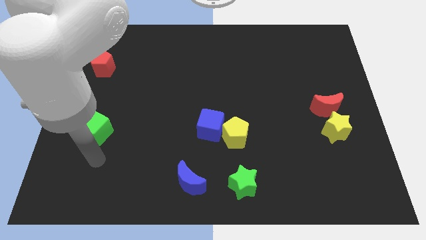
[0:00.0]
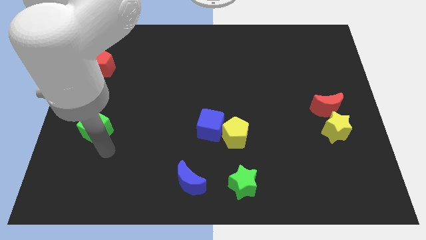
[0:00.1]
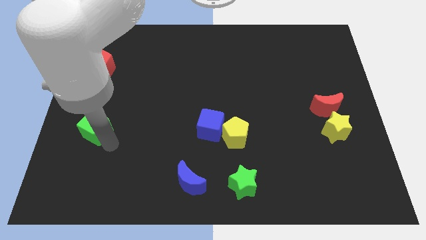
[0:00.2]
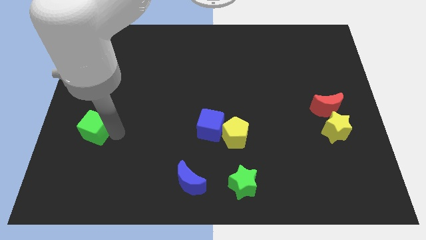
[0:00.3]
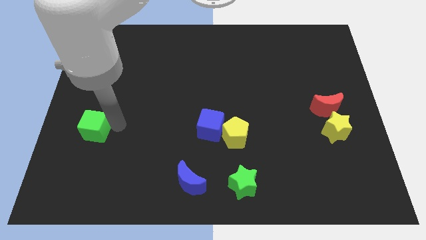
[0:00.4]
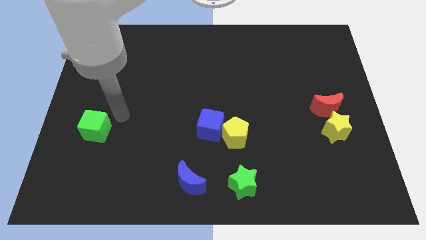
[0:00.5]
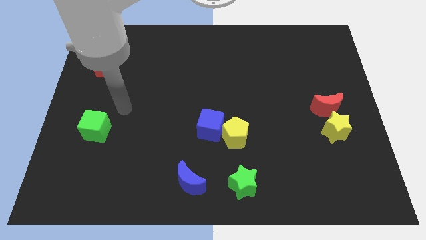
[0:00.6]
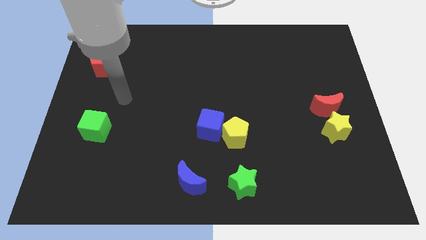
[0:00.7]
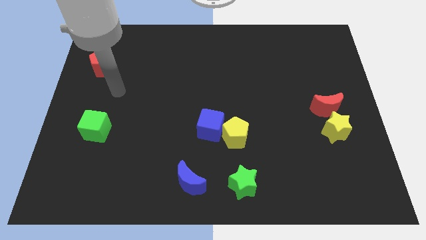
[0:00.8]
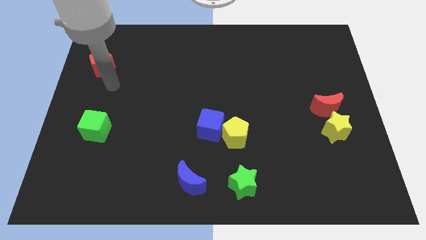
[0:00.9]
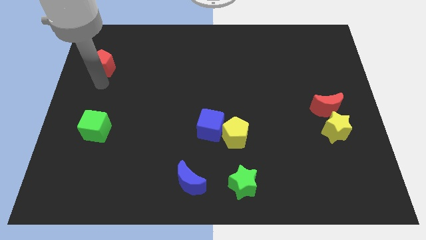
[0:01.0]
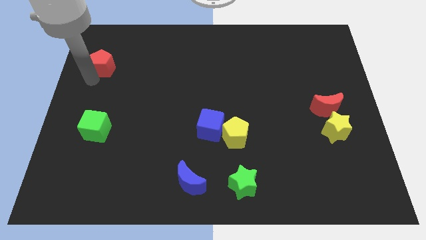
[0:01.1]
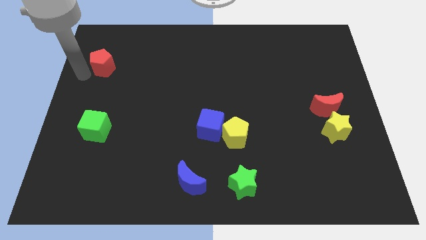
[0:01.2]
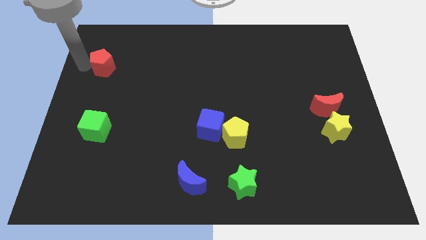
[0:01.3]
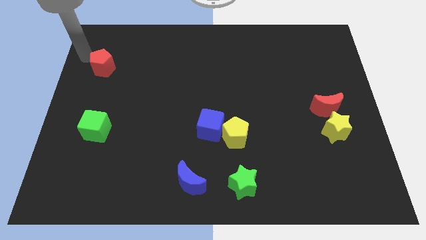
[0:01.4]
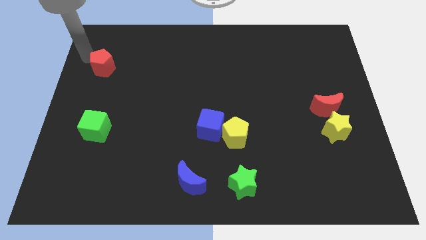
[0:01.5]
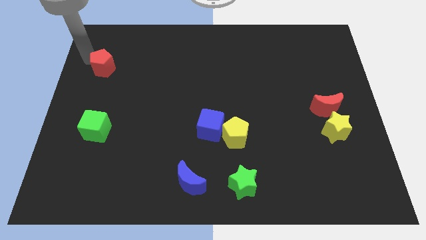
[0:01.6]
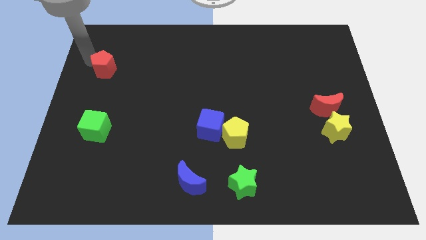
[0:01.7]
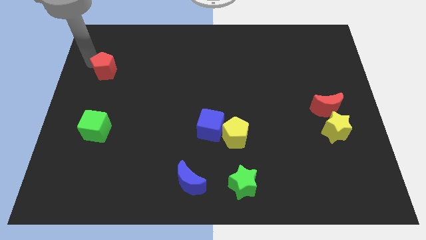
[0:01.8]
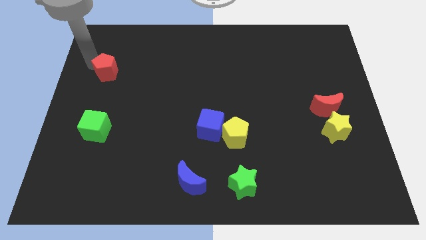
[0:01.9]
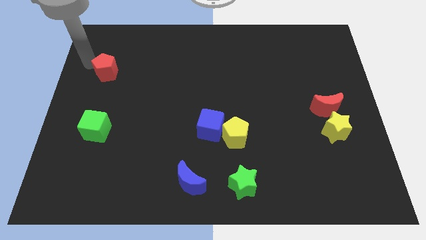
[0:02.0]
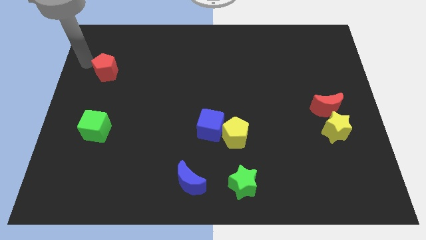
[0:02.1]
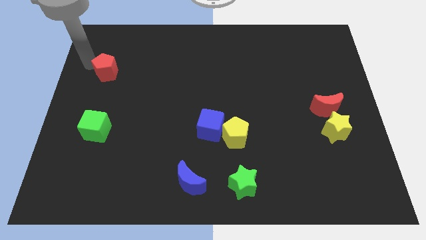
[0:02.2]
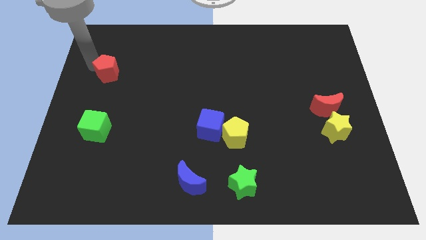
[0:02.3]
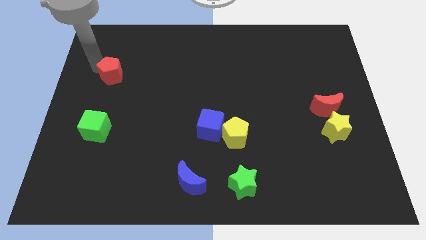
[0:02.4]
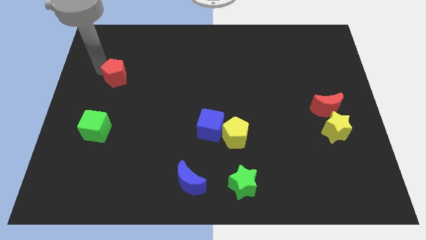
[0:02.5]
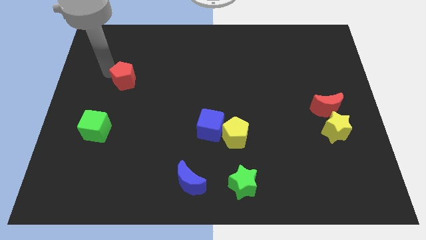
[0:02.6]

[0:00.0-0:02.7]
push the red pentagon downwards and then right slightly

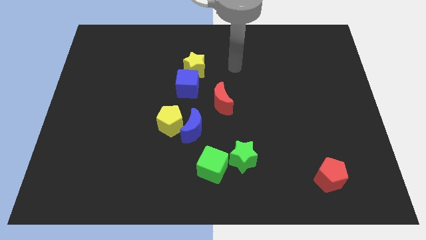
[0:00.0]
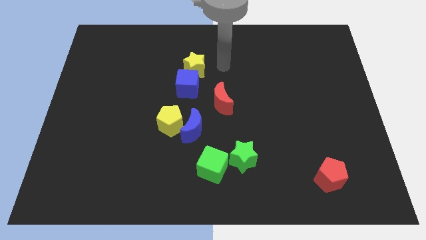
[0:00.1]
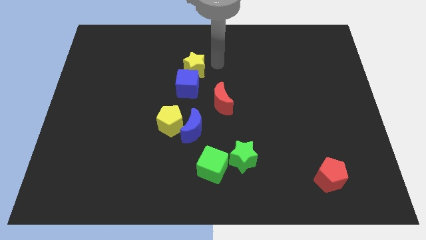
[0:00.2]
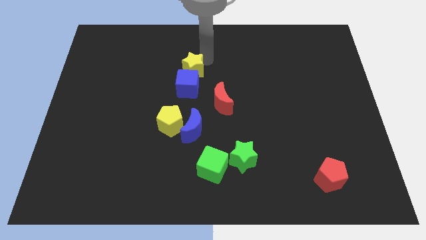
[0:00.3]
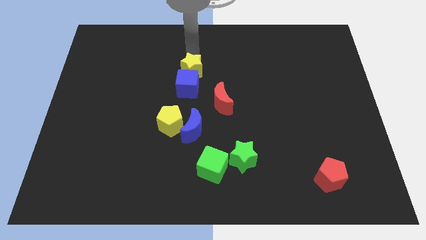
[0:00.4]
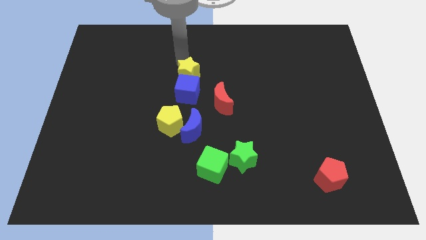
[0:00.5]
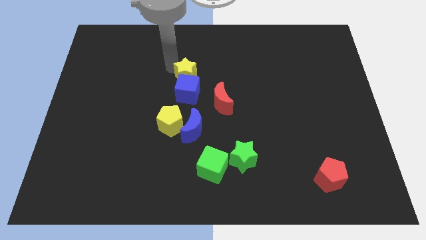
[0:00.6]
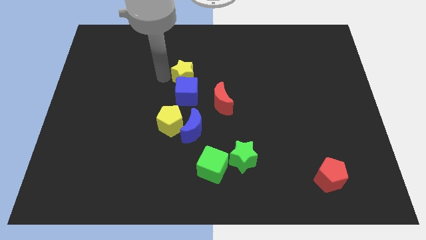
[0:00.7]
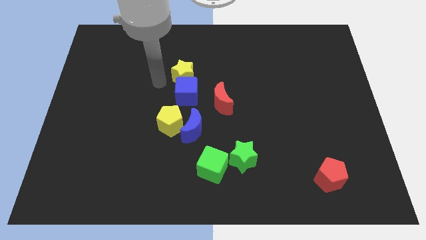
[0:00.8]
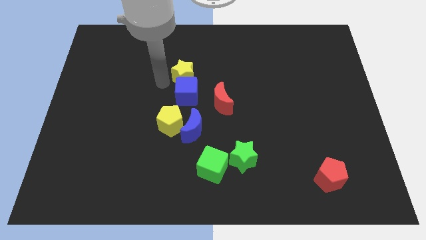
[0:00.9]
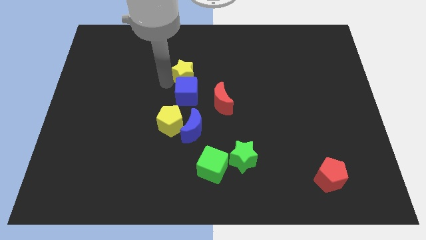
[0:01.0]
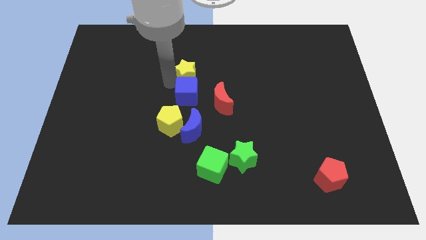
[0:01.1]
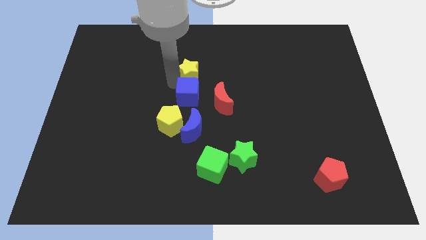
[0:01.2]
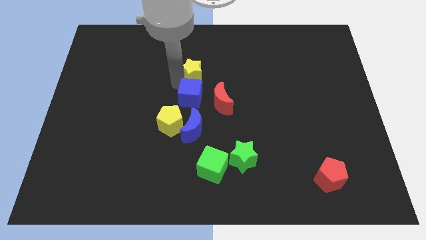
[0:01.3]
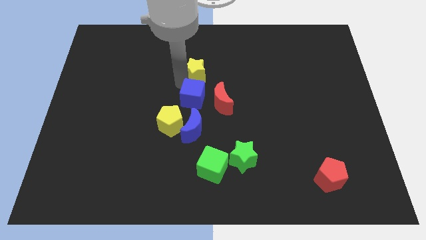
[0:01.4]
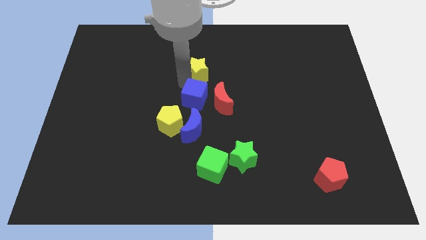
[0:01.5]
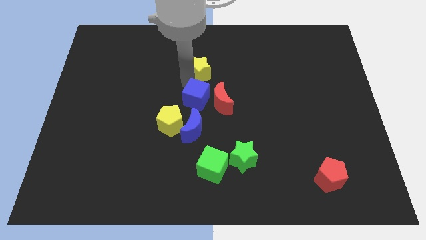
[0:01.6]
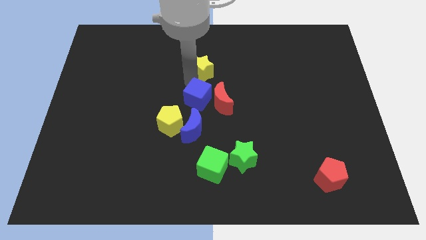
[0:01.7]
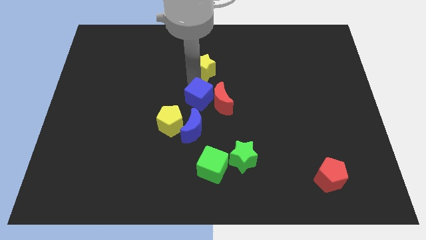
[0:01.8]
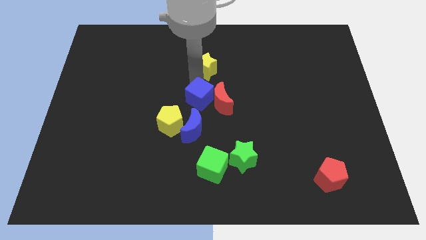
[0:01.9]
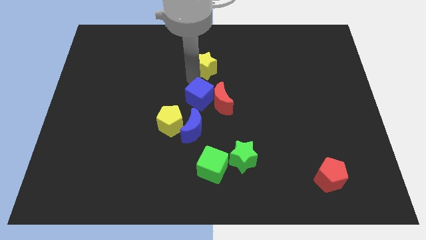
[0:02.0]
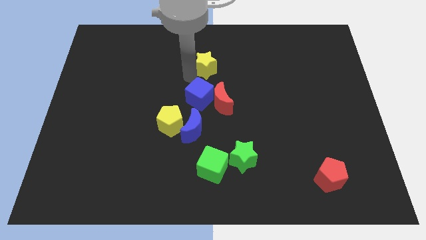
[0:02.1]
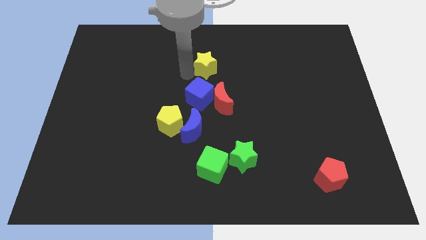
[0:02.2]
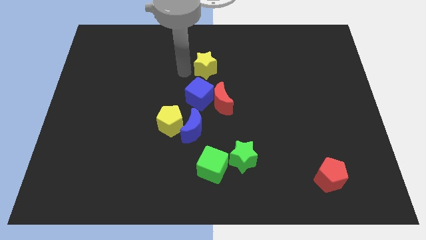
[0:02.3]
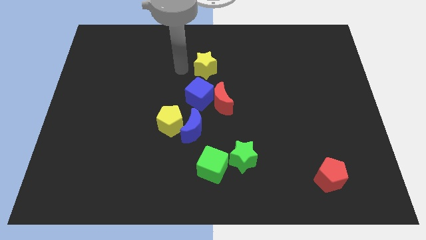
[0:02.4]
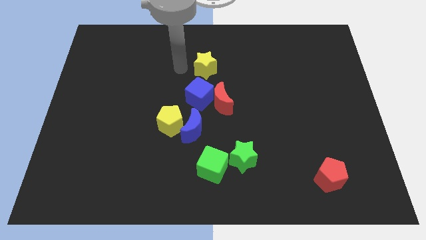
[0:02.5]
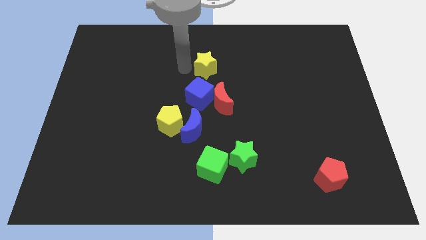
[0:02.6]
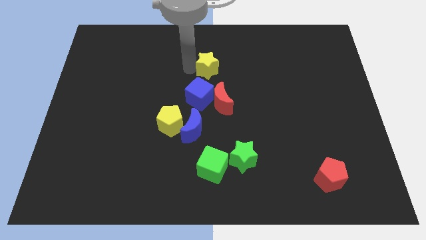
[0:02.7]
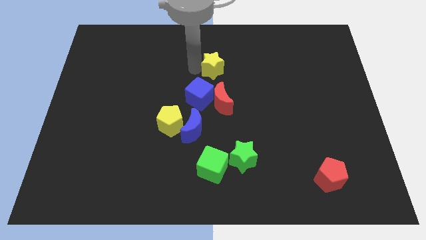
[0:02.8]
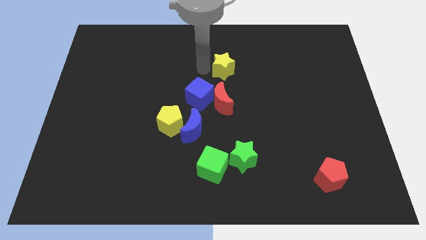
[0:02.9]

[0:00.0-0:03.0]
move the yellow star a little right

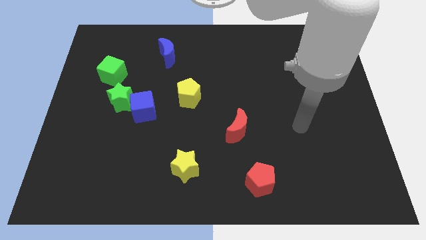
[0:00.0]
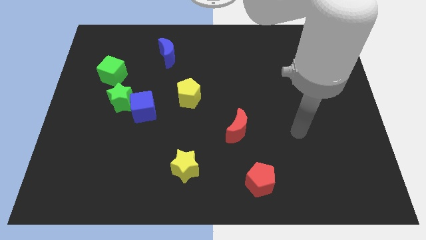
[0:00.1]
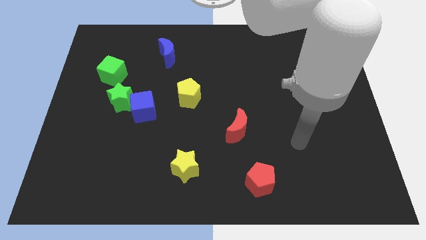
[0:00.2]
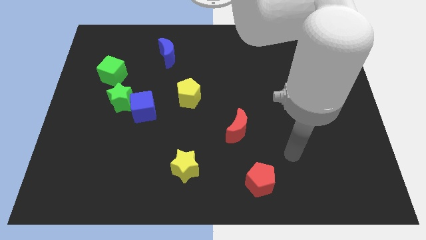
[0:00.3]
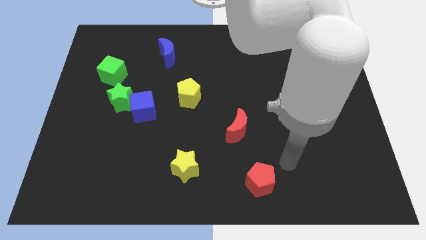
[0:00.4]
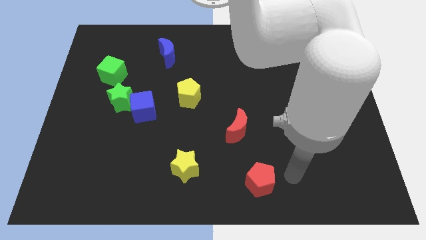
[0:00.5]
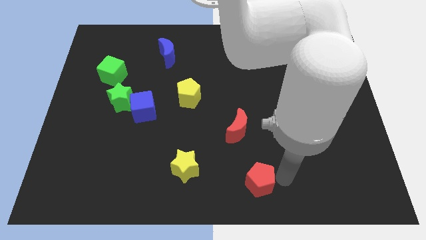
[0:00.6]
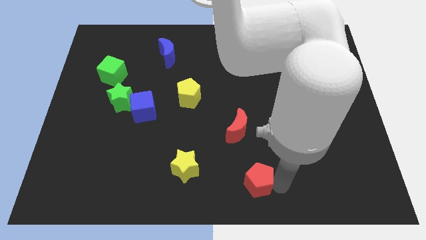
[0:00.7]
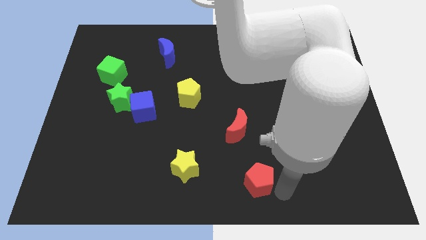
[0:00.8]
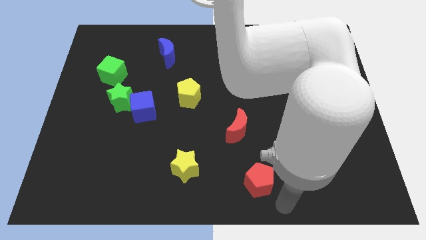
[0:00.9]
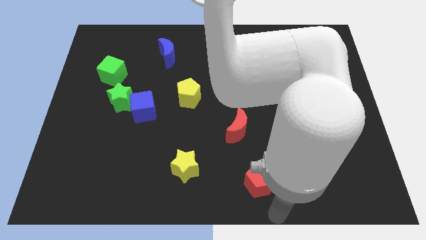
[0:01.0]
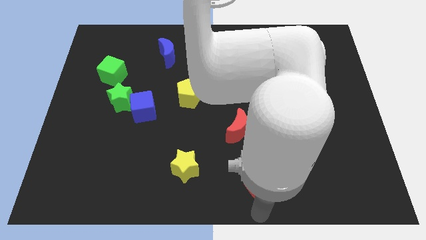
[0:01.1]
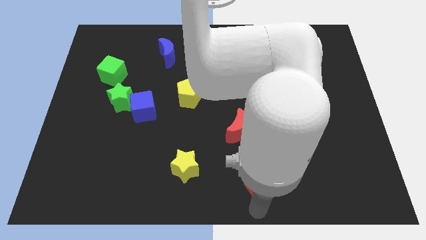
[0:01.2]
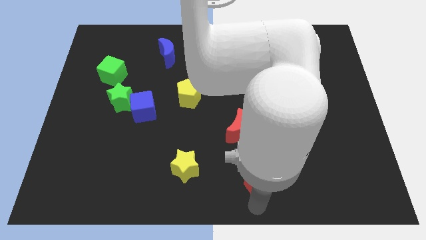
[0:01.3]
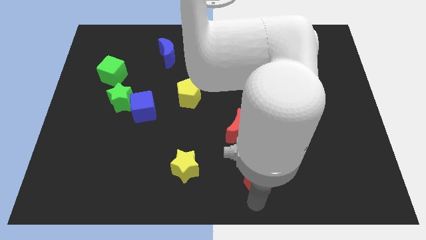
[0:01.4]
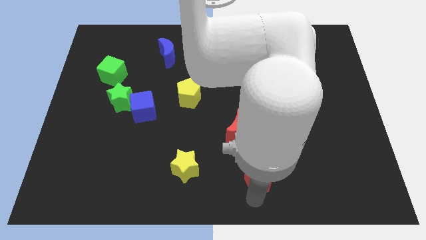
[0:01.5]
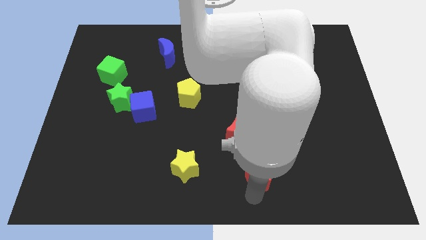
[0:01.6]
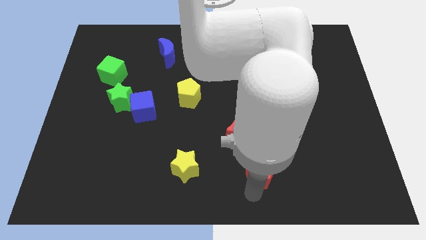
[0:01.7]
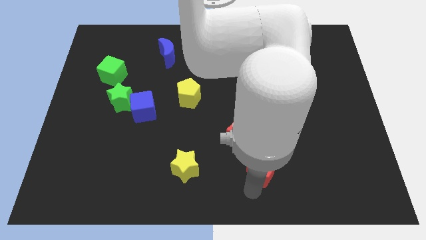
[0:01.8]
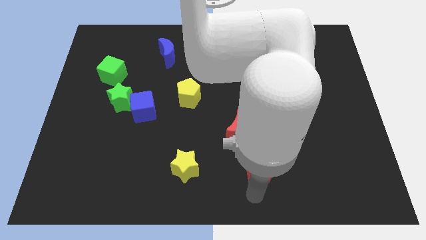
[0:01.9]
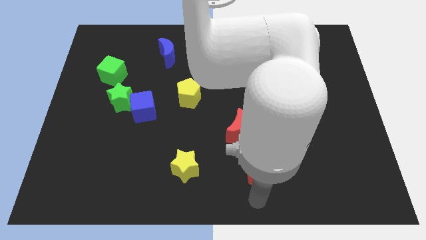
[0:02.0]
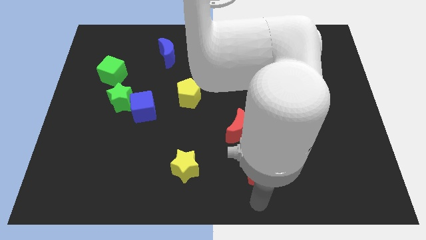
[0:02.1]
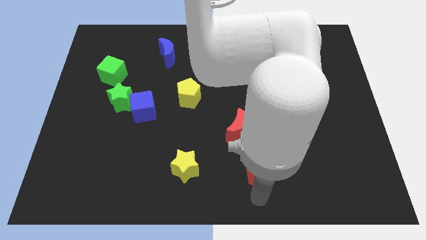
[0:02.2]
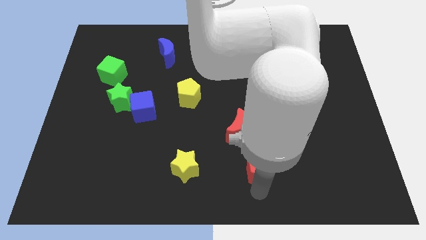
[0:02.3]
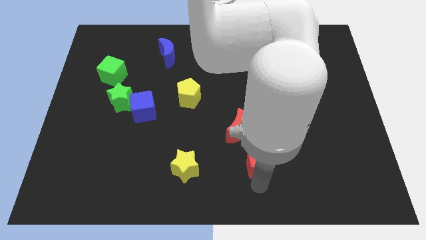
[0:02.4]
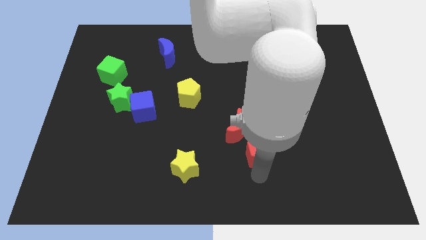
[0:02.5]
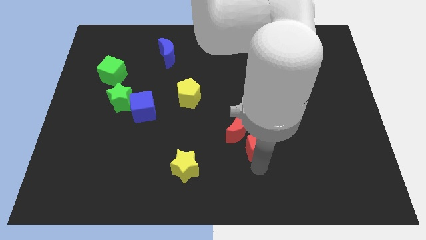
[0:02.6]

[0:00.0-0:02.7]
push the red pentagon a bit upwards
